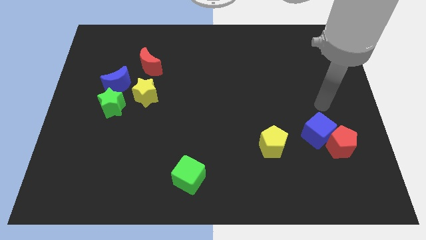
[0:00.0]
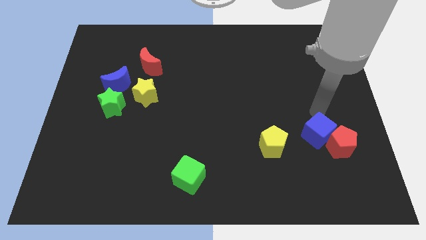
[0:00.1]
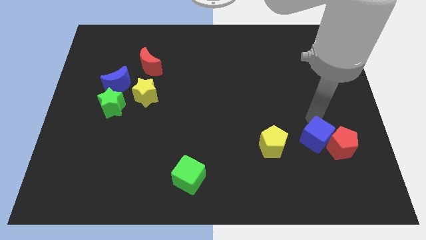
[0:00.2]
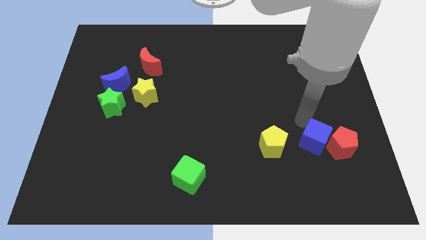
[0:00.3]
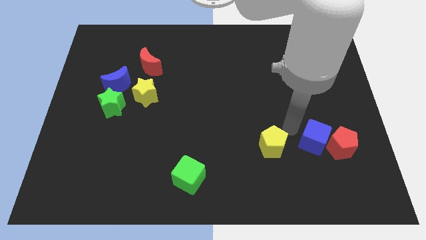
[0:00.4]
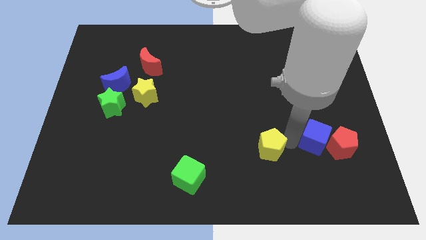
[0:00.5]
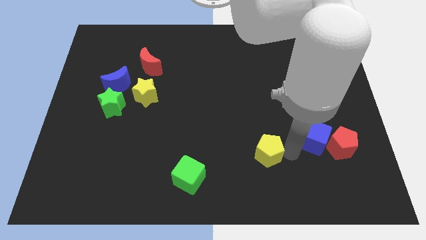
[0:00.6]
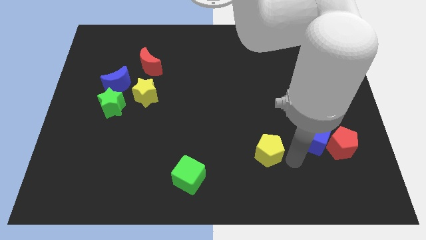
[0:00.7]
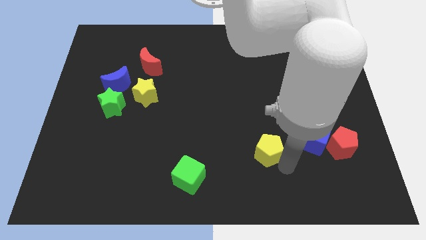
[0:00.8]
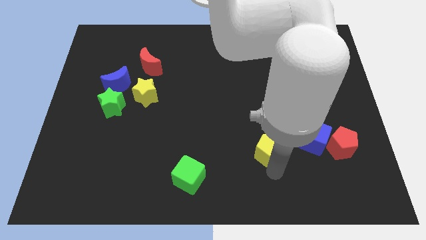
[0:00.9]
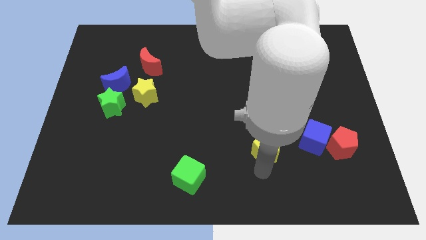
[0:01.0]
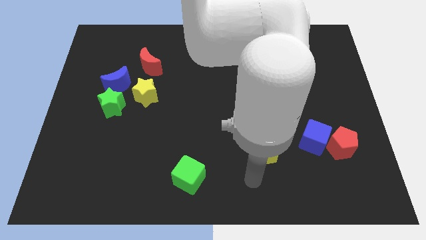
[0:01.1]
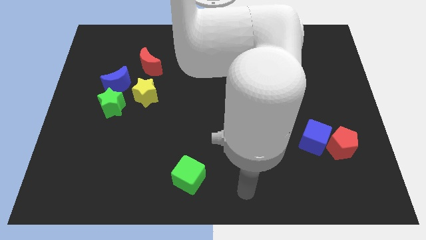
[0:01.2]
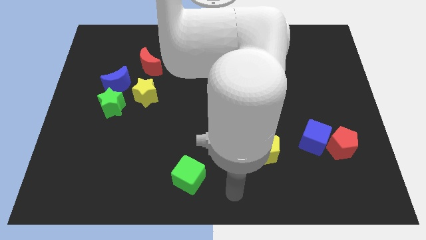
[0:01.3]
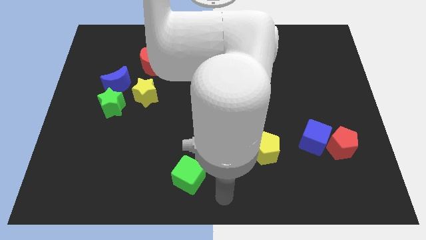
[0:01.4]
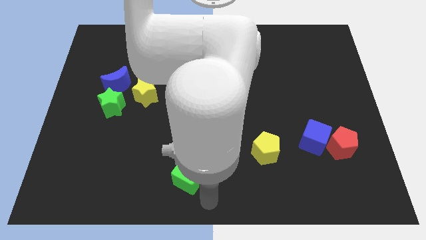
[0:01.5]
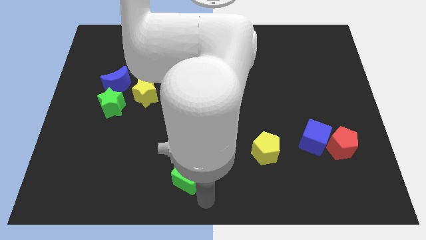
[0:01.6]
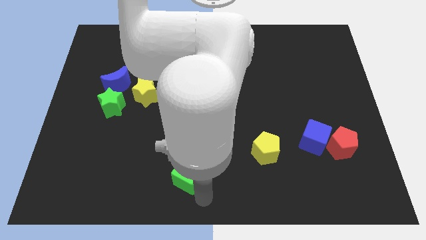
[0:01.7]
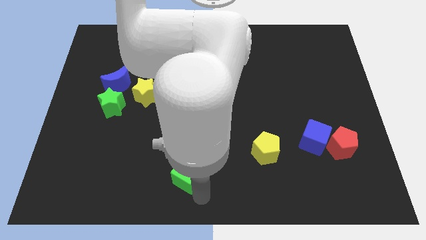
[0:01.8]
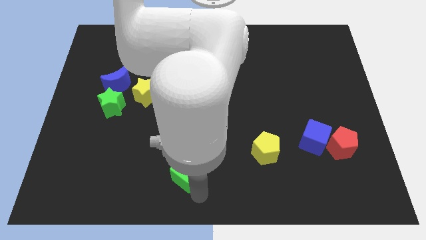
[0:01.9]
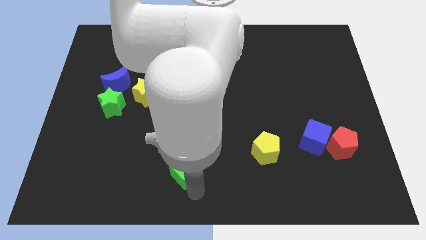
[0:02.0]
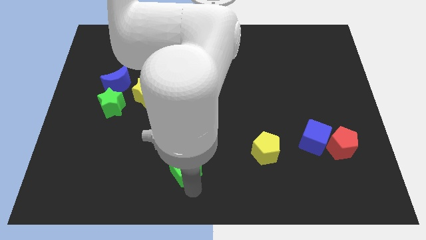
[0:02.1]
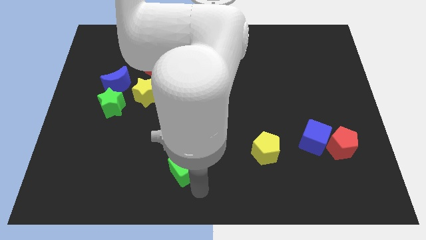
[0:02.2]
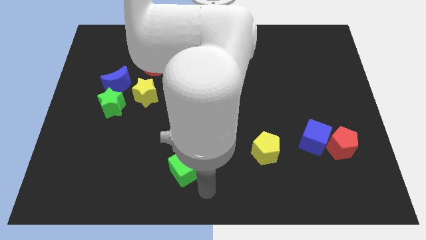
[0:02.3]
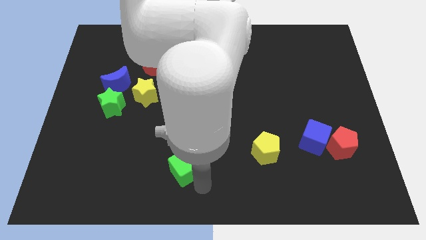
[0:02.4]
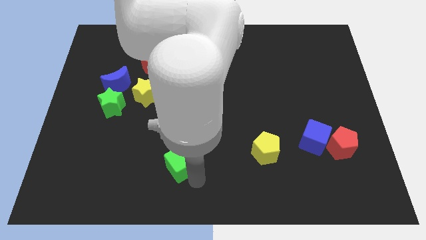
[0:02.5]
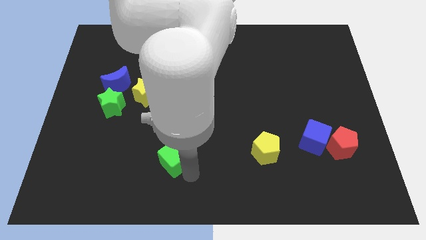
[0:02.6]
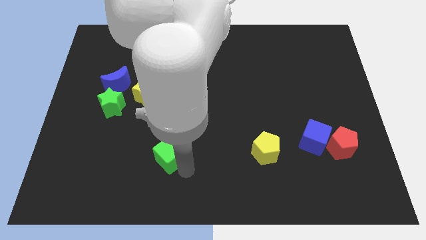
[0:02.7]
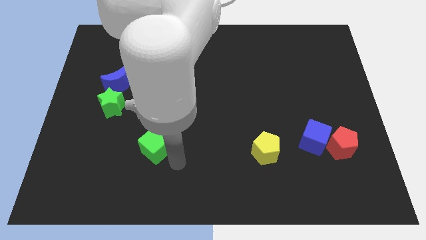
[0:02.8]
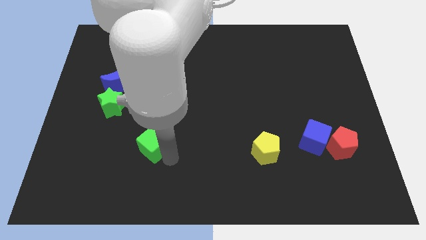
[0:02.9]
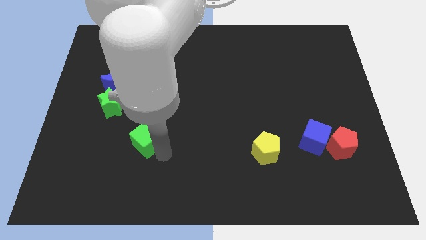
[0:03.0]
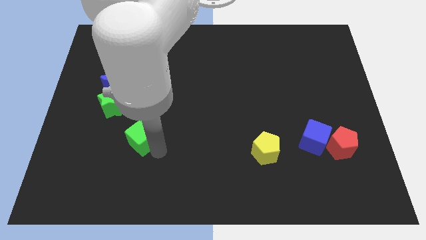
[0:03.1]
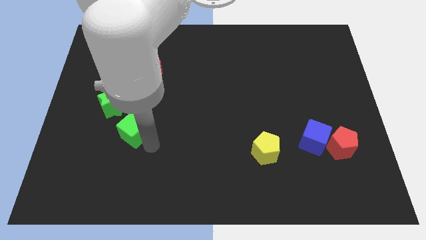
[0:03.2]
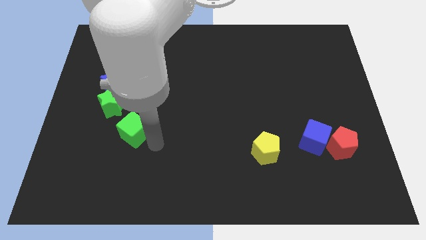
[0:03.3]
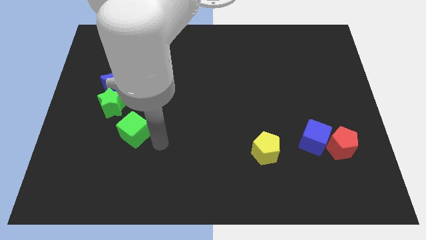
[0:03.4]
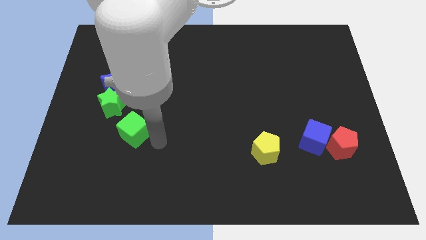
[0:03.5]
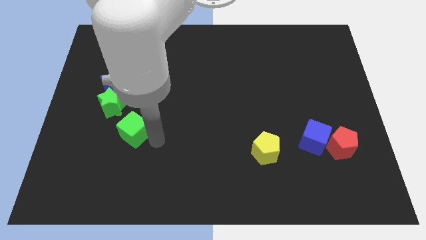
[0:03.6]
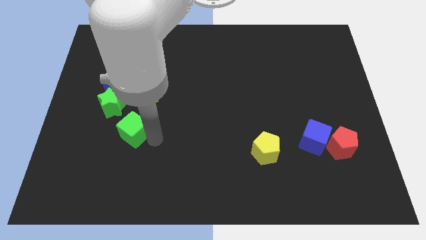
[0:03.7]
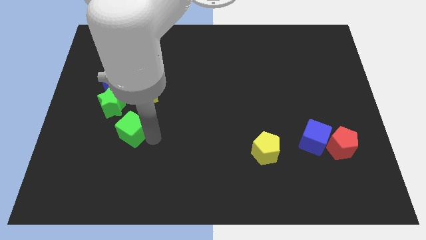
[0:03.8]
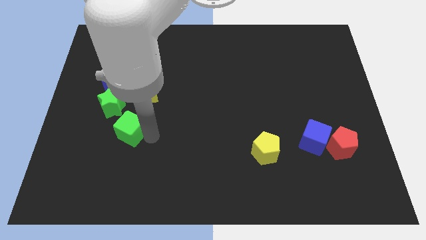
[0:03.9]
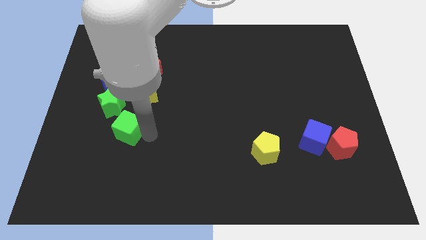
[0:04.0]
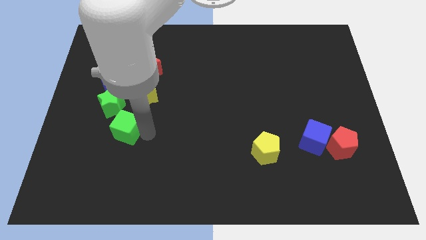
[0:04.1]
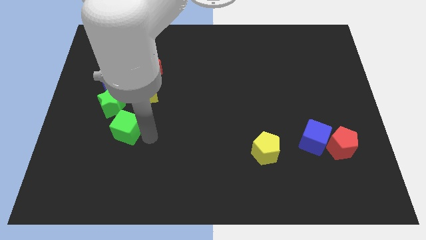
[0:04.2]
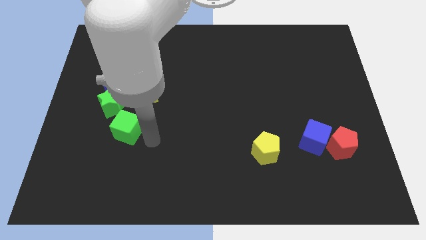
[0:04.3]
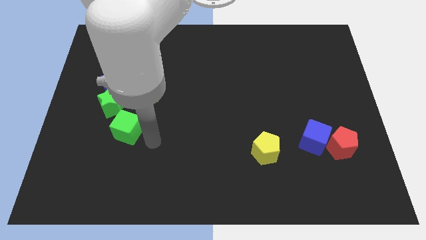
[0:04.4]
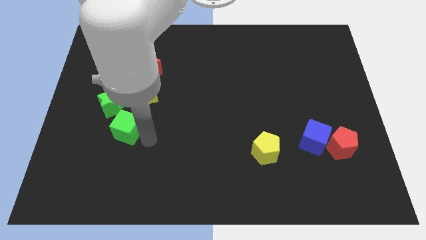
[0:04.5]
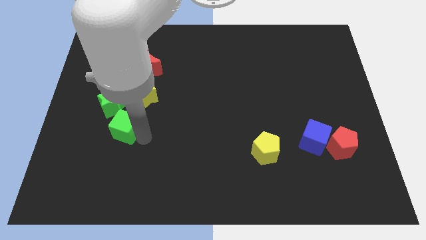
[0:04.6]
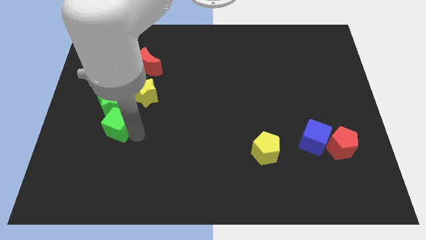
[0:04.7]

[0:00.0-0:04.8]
slide the green cube up and left

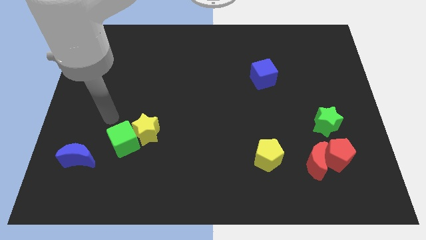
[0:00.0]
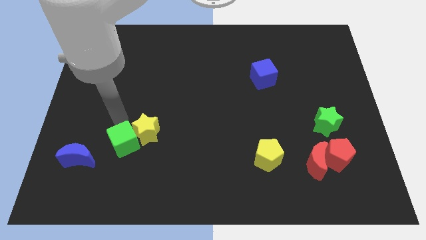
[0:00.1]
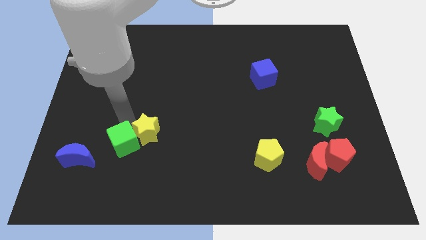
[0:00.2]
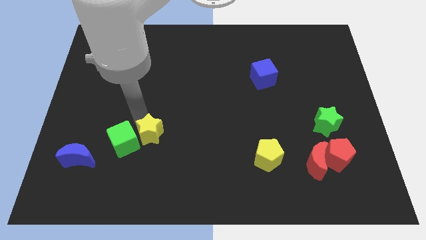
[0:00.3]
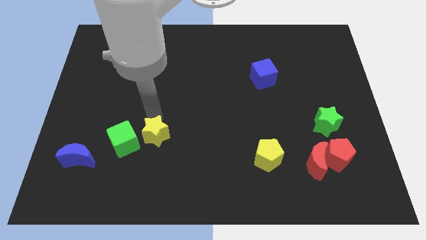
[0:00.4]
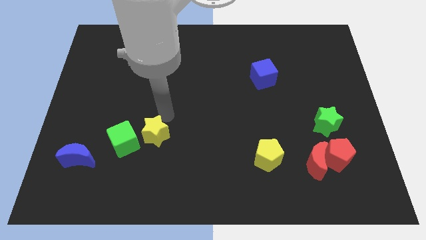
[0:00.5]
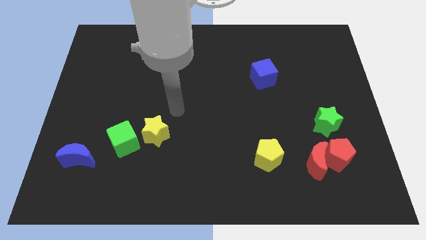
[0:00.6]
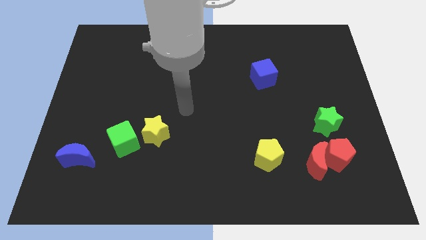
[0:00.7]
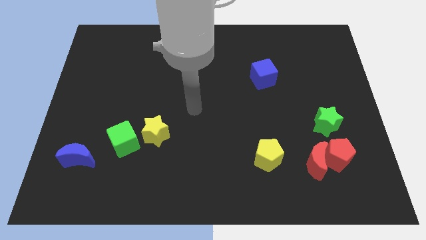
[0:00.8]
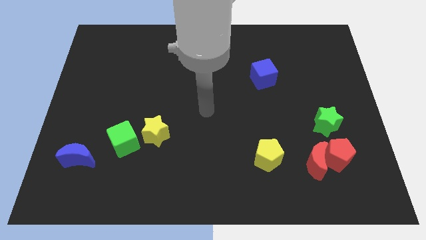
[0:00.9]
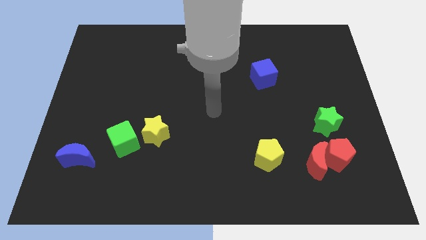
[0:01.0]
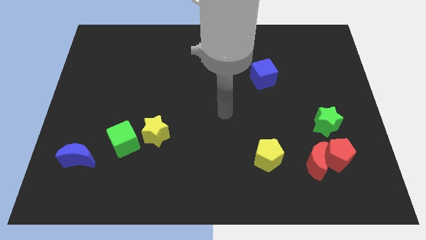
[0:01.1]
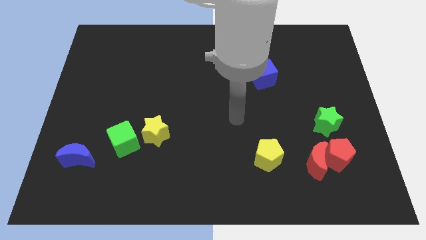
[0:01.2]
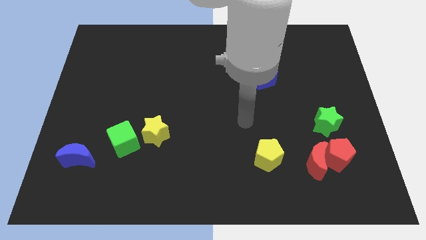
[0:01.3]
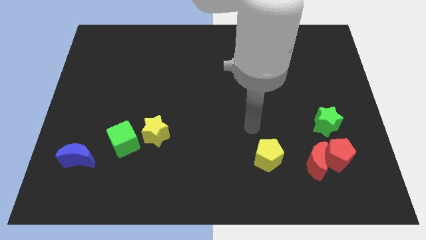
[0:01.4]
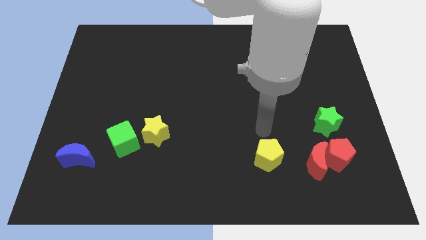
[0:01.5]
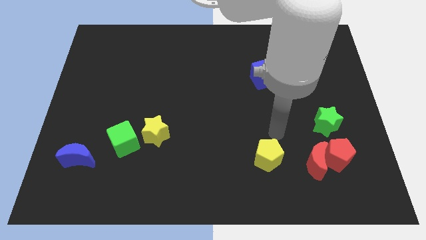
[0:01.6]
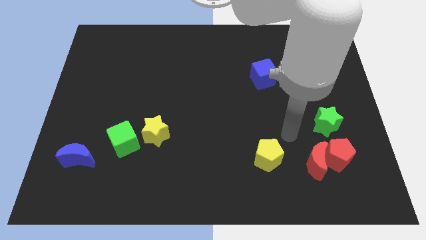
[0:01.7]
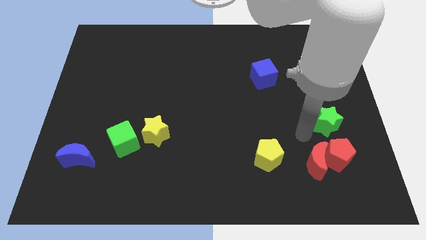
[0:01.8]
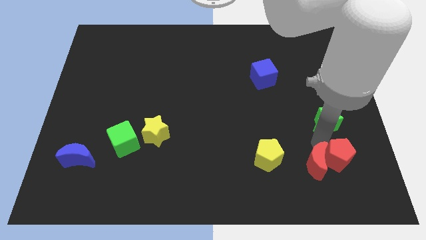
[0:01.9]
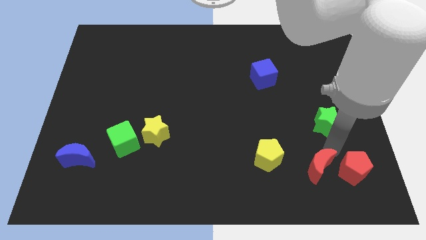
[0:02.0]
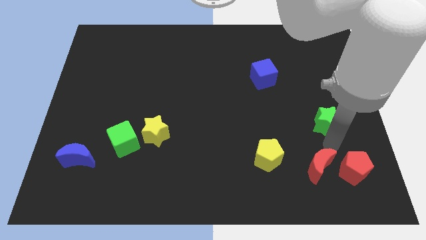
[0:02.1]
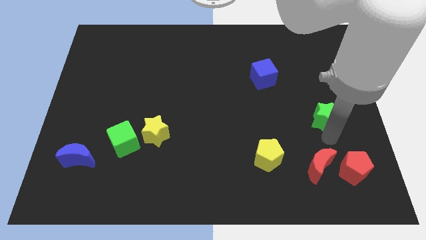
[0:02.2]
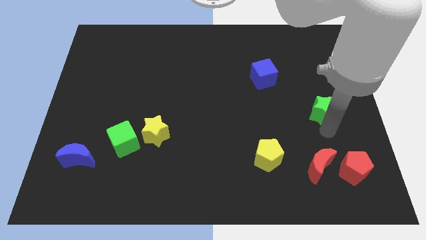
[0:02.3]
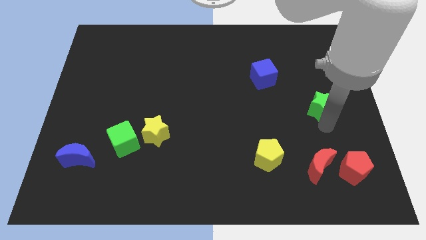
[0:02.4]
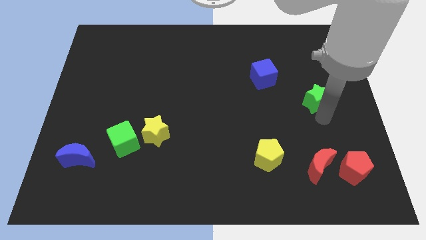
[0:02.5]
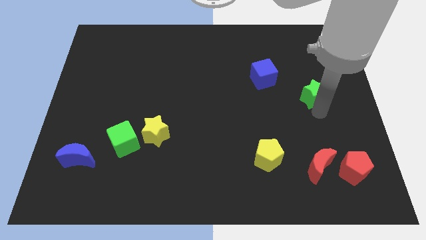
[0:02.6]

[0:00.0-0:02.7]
push the green star up a little

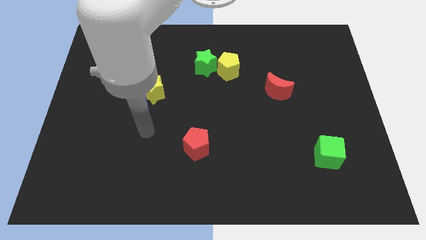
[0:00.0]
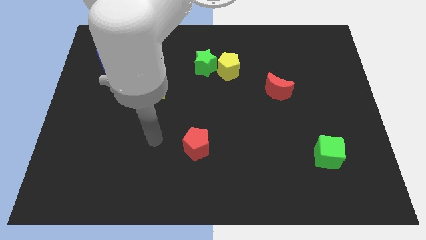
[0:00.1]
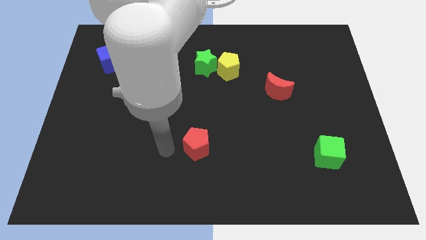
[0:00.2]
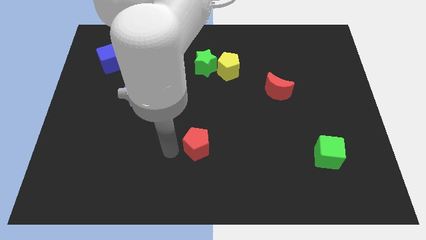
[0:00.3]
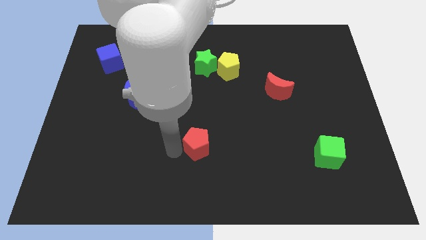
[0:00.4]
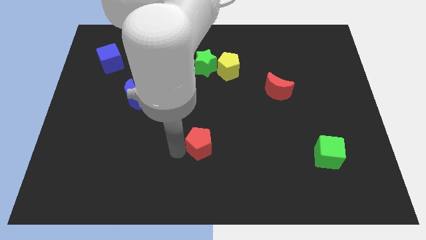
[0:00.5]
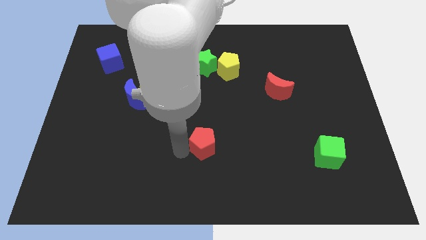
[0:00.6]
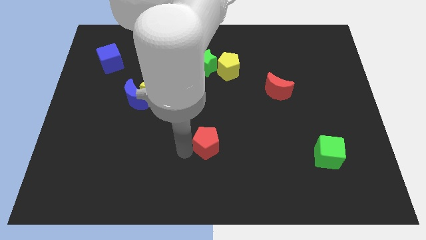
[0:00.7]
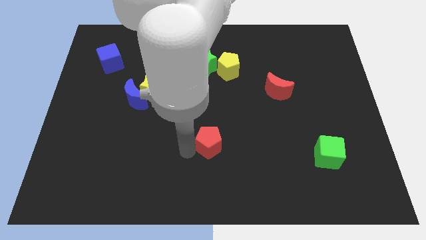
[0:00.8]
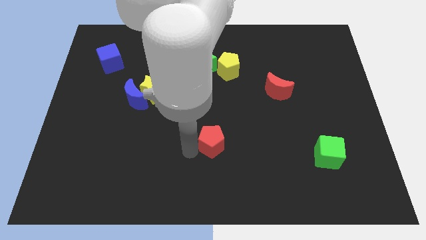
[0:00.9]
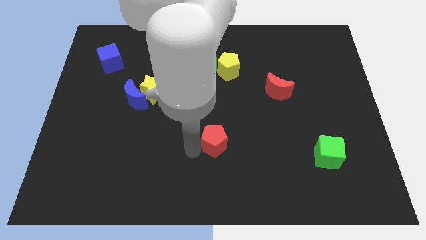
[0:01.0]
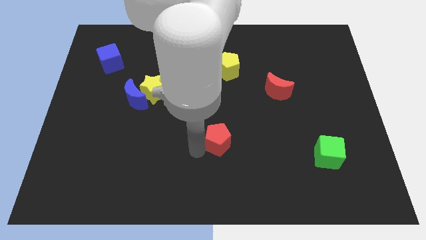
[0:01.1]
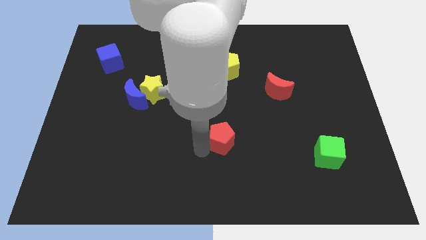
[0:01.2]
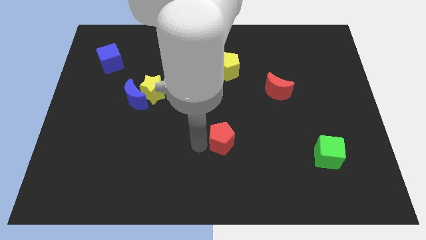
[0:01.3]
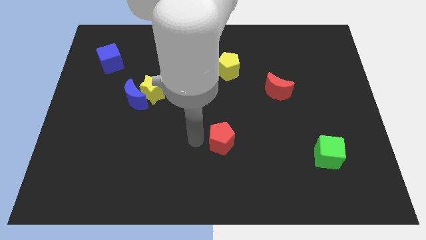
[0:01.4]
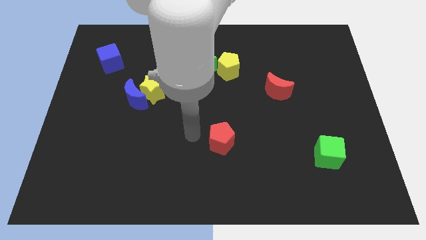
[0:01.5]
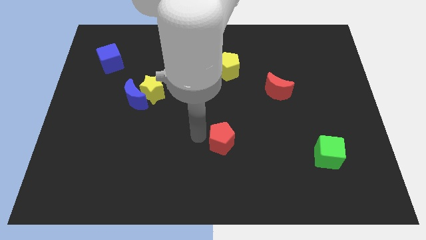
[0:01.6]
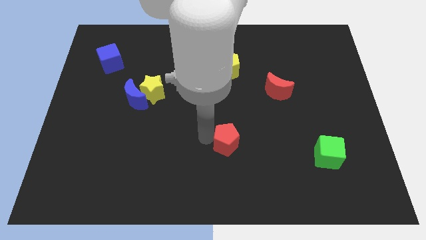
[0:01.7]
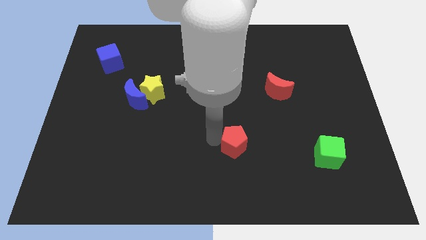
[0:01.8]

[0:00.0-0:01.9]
slide the red pentagon to the right a little
